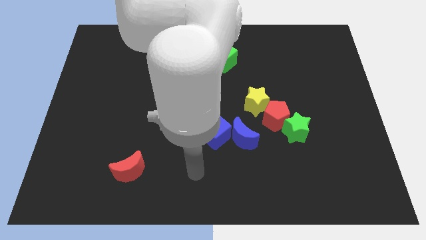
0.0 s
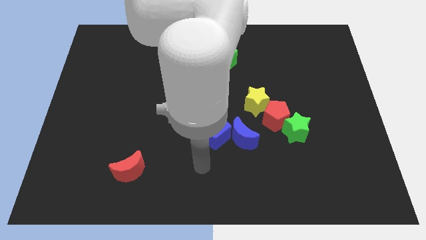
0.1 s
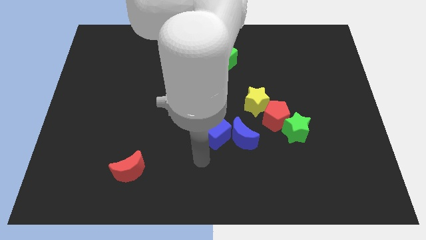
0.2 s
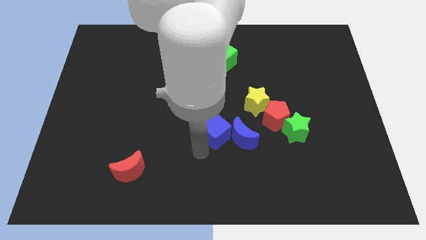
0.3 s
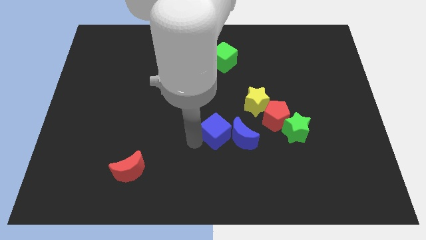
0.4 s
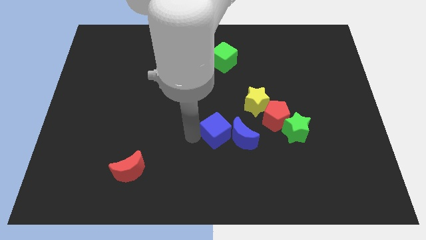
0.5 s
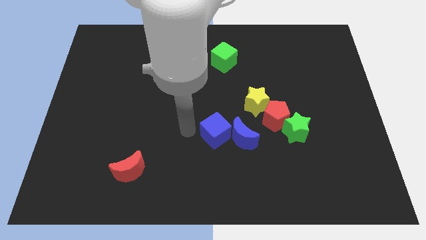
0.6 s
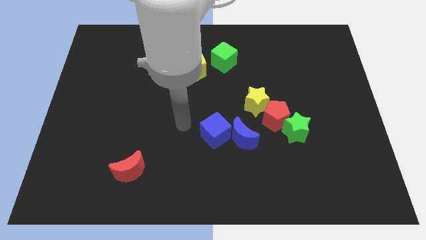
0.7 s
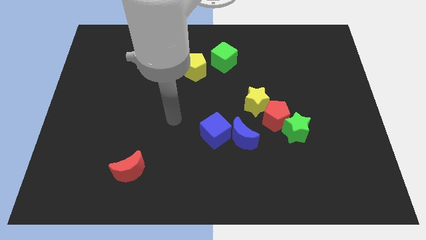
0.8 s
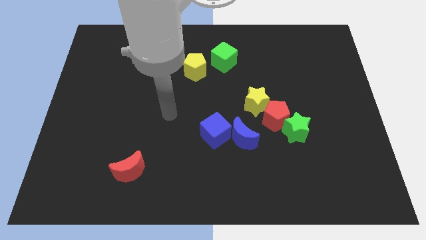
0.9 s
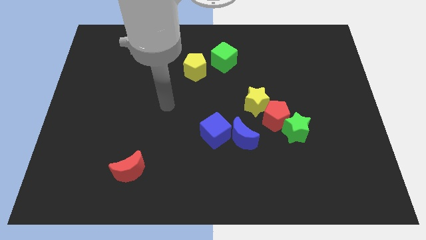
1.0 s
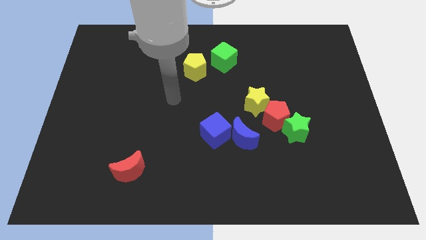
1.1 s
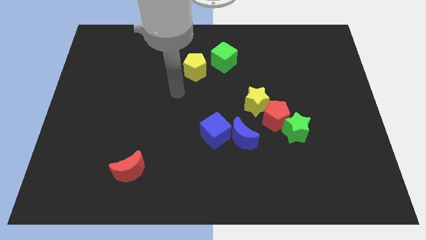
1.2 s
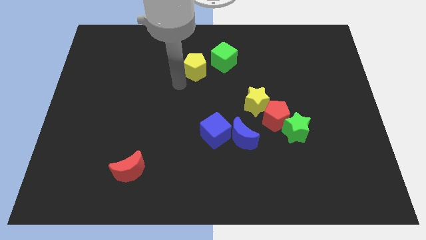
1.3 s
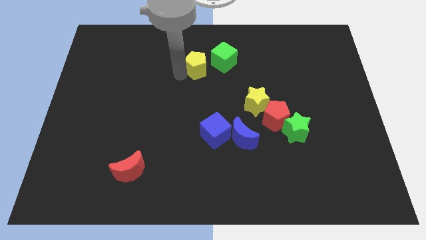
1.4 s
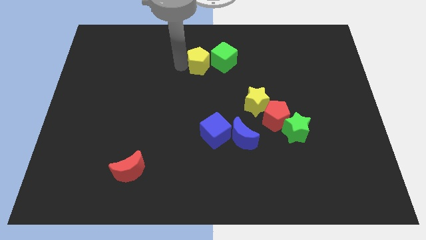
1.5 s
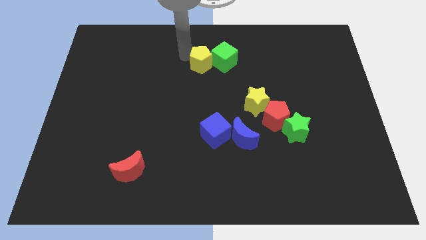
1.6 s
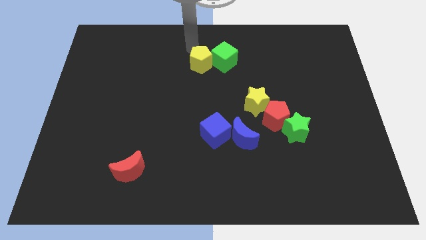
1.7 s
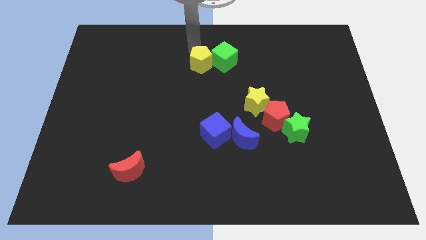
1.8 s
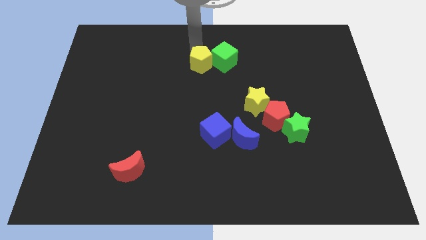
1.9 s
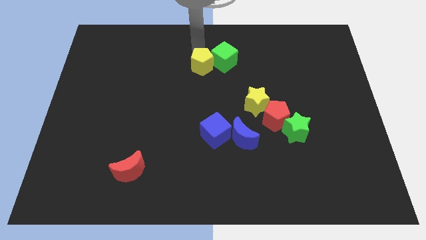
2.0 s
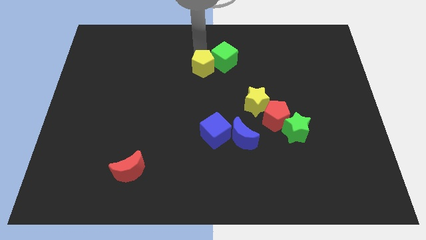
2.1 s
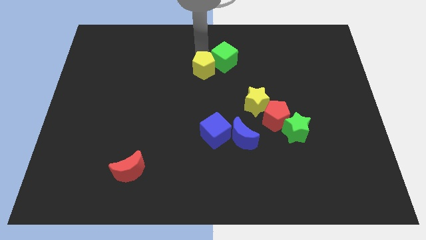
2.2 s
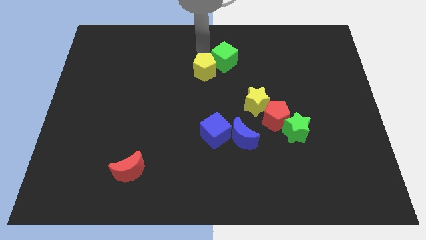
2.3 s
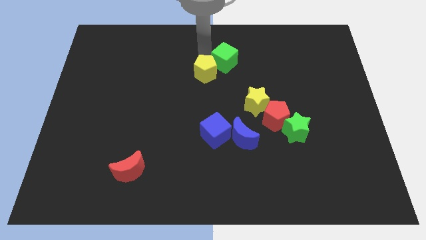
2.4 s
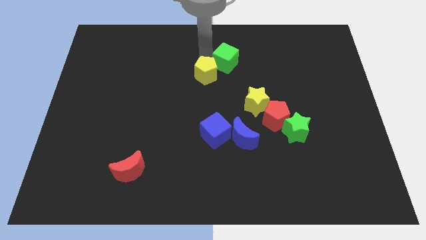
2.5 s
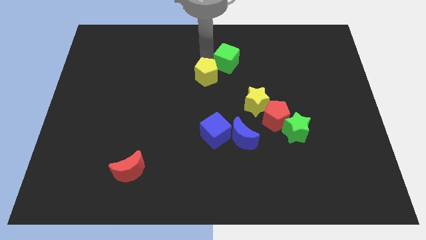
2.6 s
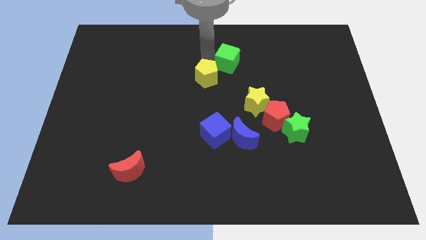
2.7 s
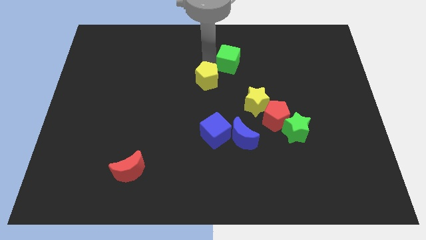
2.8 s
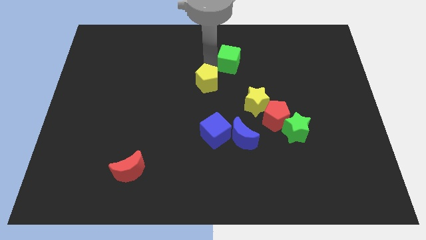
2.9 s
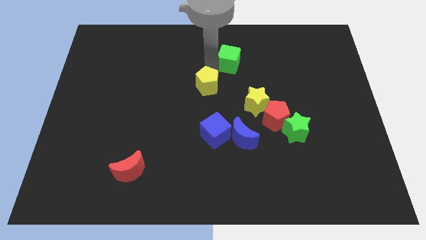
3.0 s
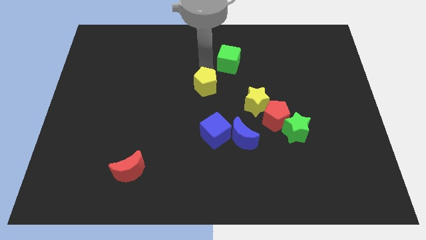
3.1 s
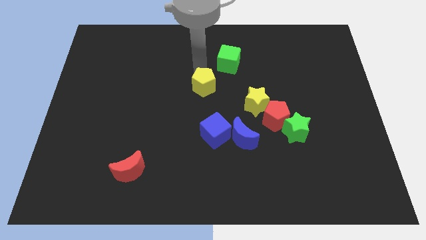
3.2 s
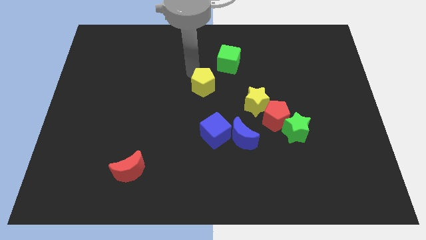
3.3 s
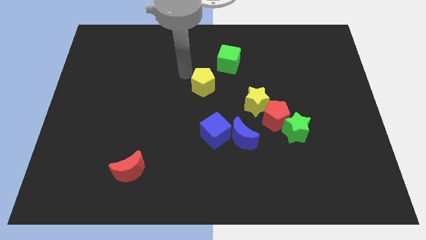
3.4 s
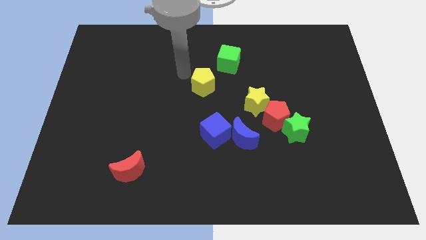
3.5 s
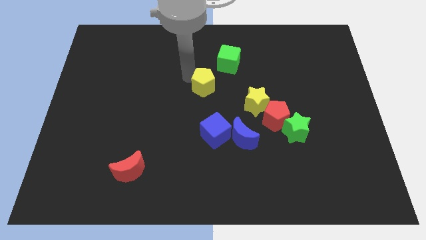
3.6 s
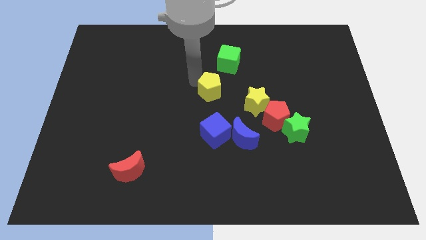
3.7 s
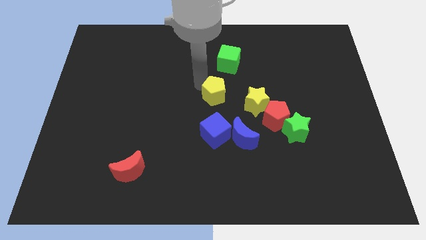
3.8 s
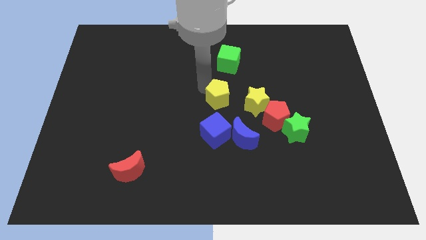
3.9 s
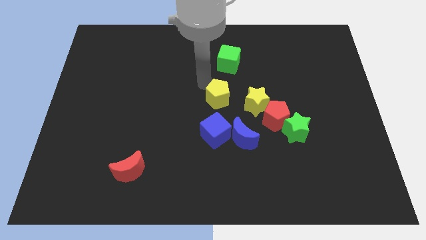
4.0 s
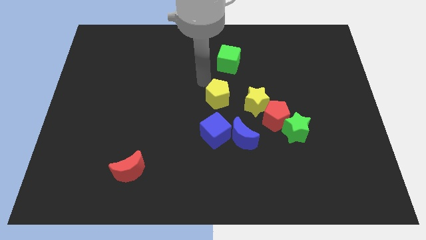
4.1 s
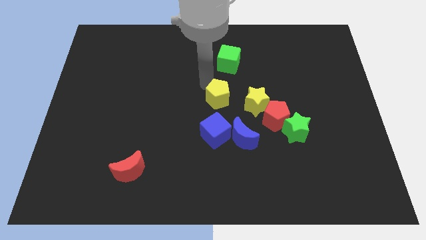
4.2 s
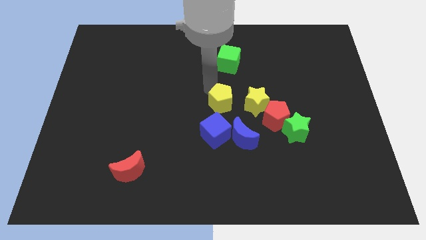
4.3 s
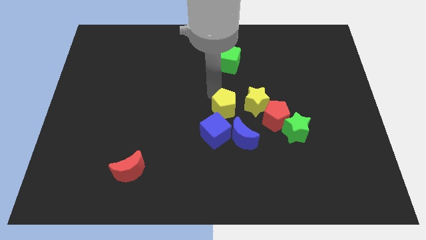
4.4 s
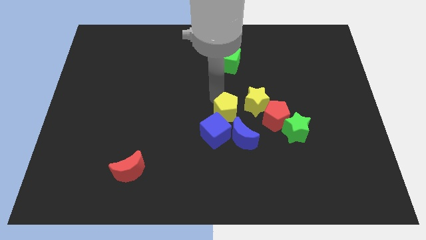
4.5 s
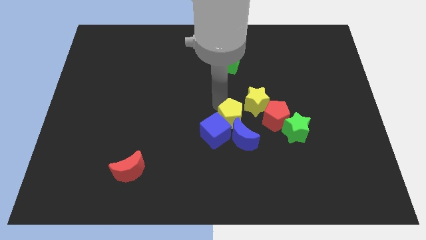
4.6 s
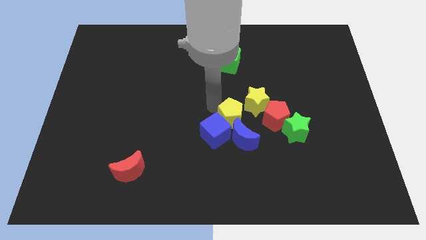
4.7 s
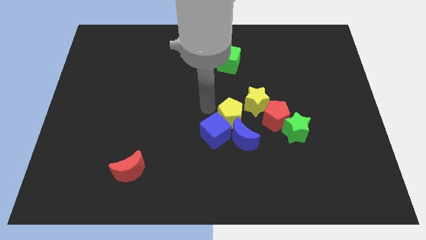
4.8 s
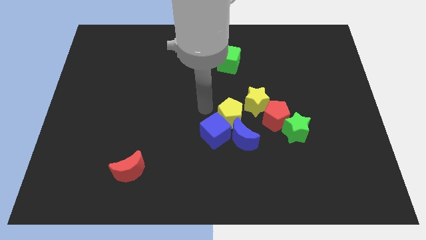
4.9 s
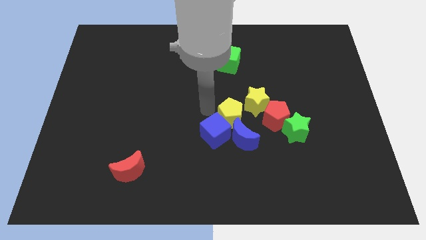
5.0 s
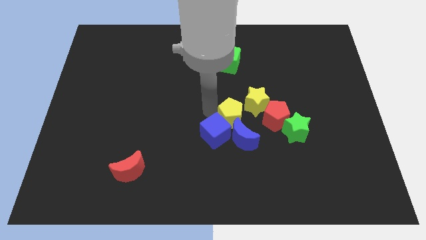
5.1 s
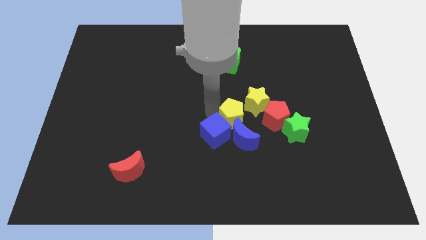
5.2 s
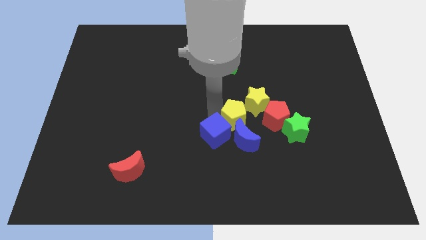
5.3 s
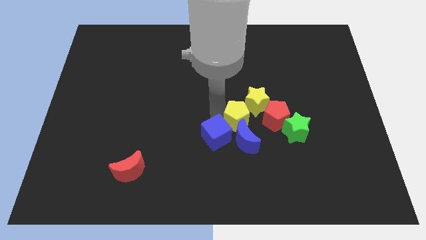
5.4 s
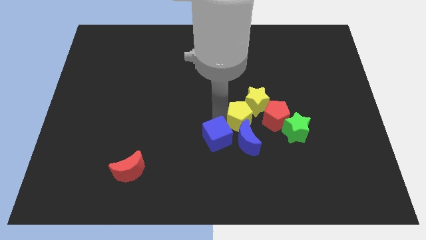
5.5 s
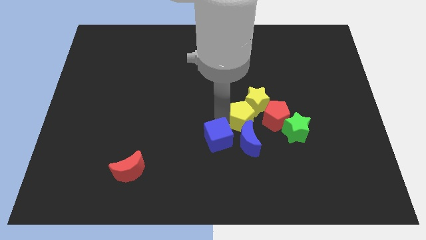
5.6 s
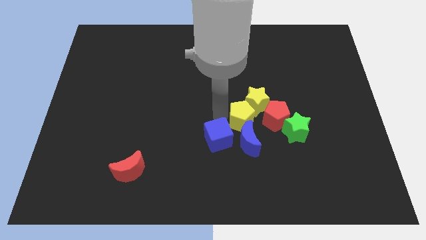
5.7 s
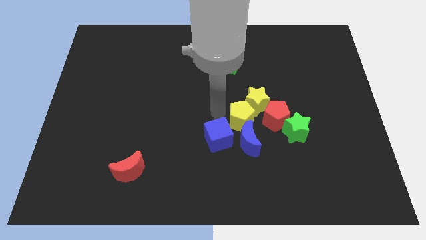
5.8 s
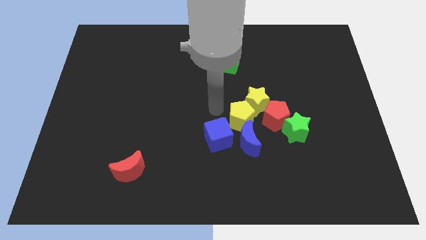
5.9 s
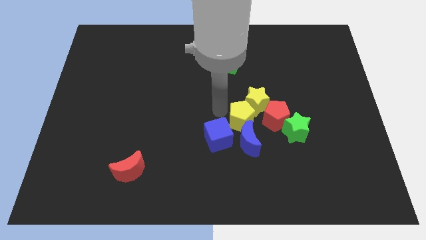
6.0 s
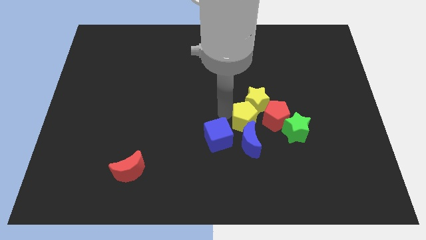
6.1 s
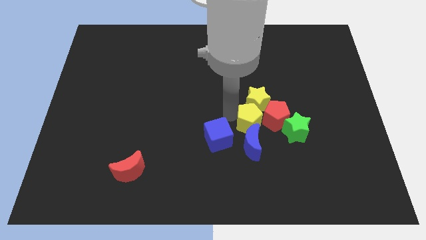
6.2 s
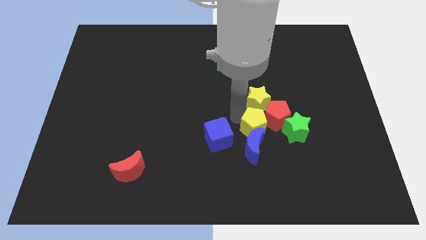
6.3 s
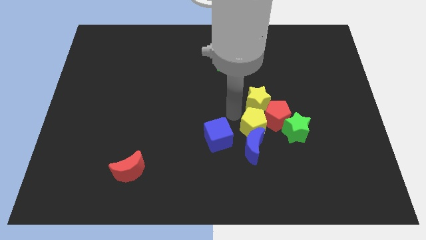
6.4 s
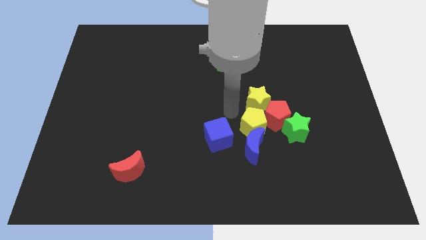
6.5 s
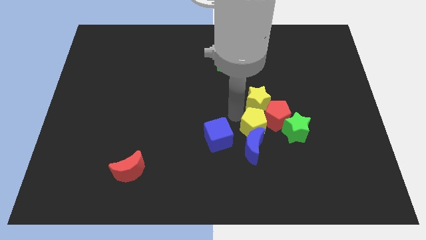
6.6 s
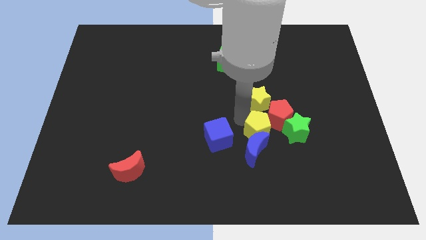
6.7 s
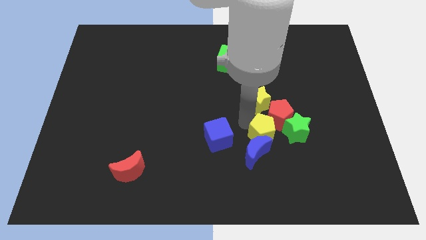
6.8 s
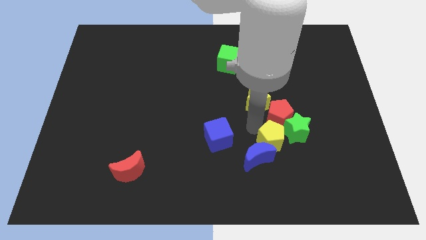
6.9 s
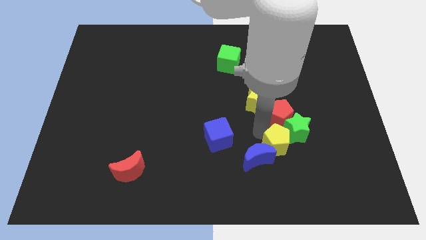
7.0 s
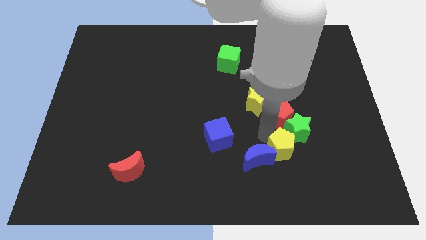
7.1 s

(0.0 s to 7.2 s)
move the yellow pentagon to the bottom side of the green star

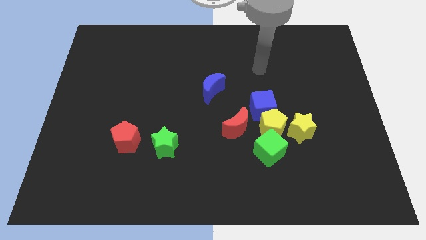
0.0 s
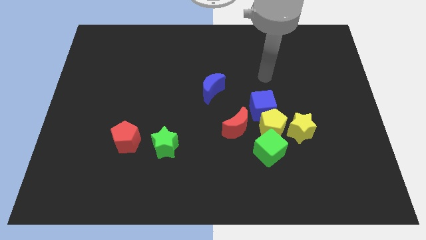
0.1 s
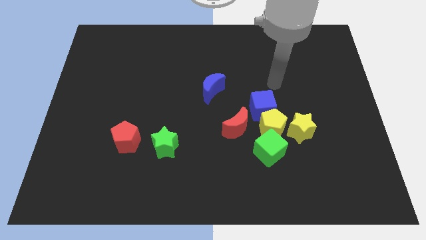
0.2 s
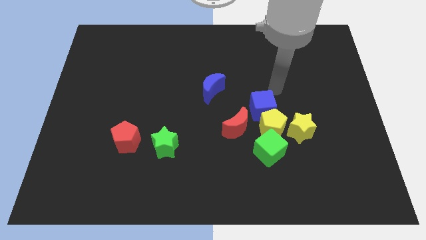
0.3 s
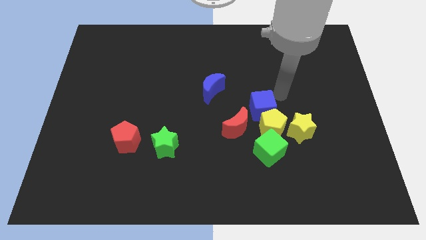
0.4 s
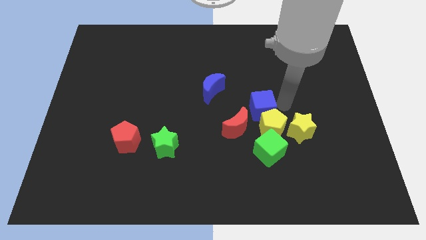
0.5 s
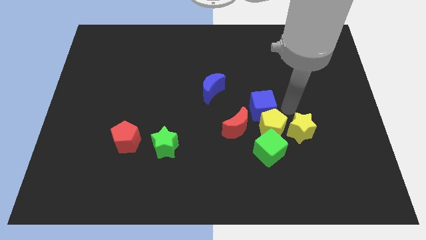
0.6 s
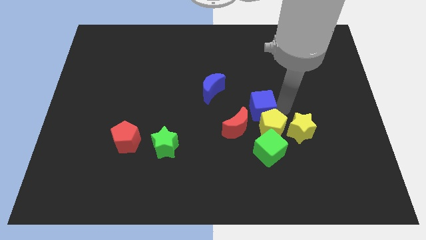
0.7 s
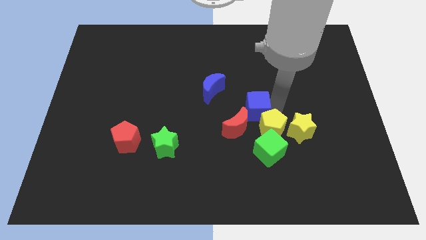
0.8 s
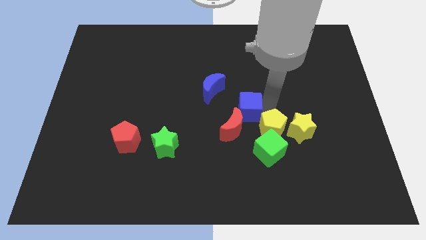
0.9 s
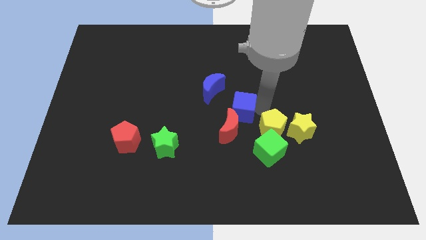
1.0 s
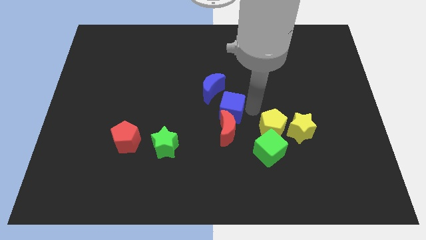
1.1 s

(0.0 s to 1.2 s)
slide the blue cube to the top left side of the red moon
